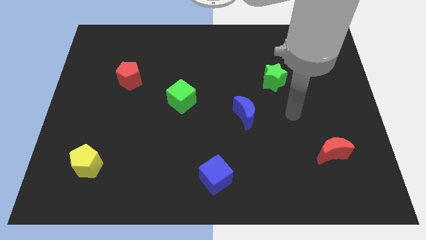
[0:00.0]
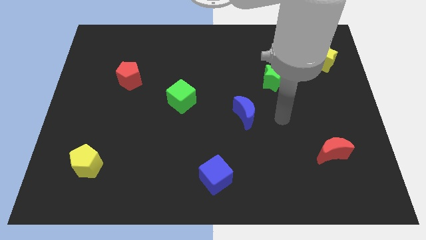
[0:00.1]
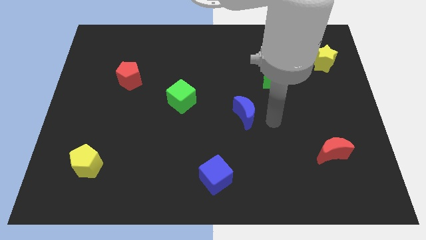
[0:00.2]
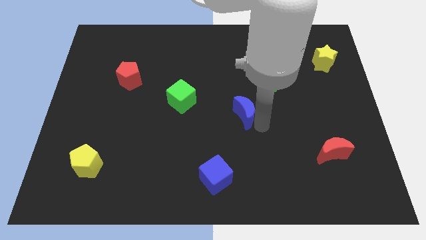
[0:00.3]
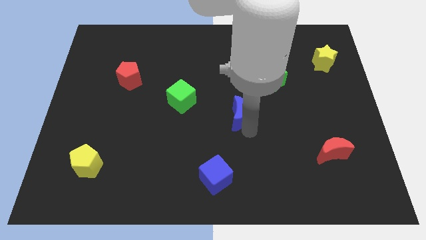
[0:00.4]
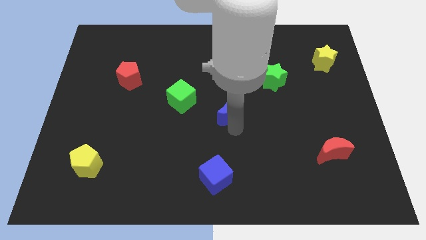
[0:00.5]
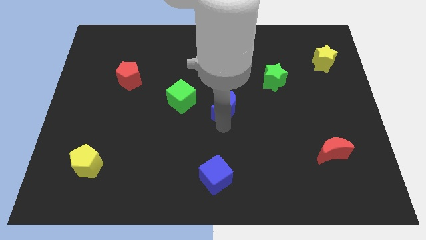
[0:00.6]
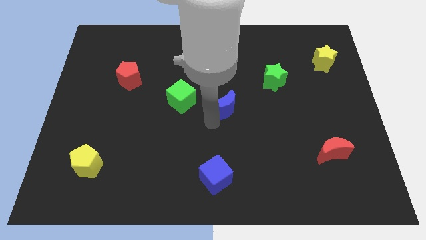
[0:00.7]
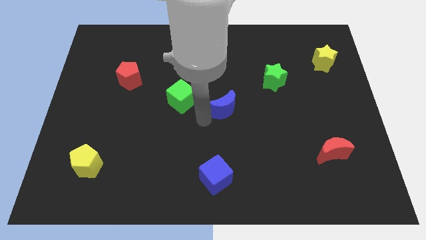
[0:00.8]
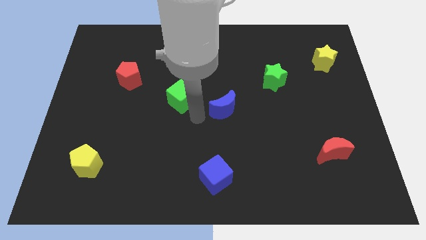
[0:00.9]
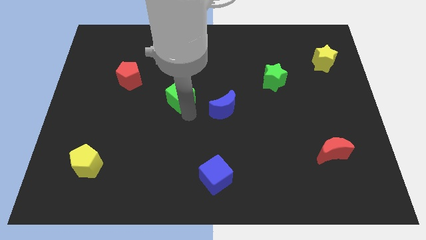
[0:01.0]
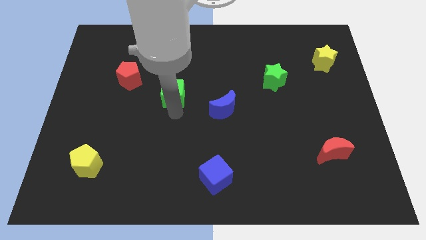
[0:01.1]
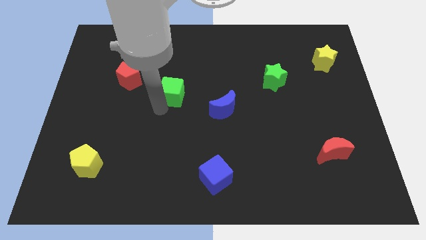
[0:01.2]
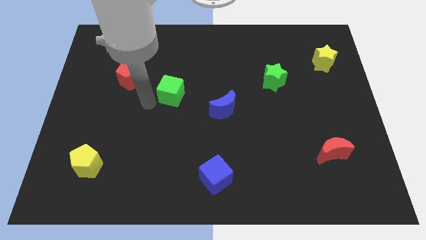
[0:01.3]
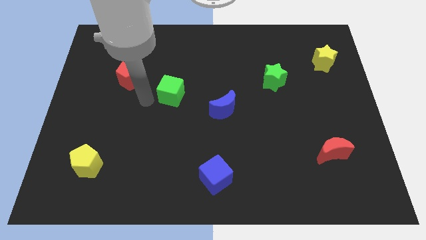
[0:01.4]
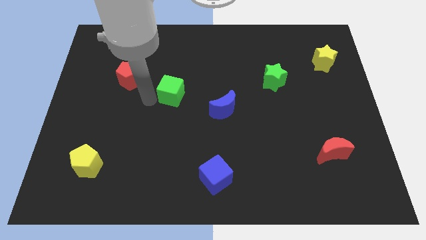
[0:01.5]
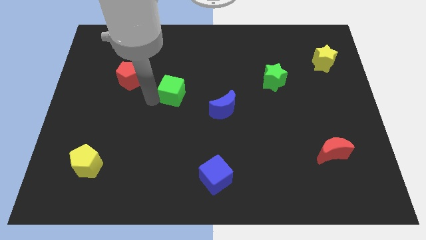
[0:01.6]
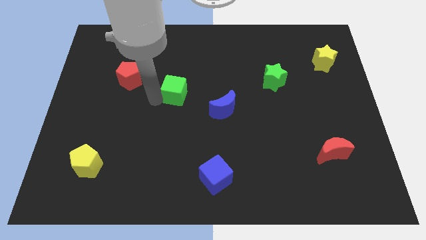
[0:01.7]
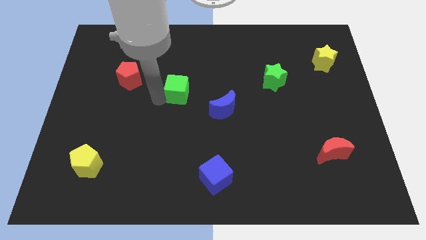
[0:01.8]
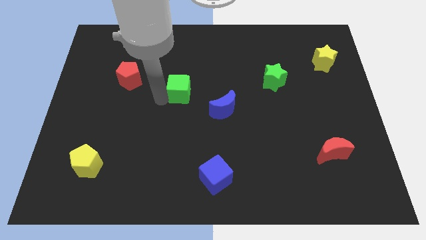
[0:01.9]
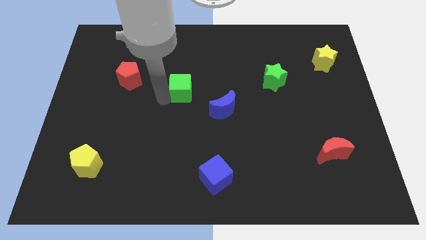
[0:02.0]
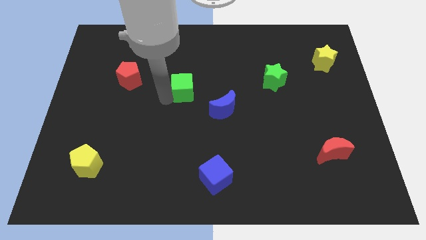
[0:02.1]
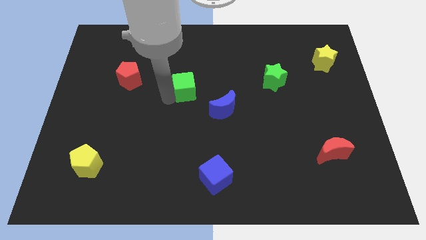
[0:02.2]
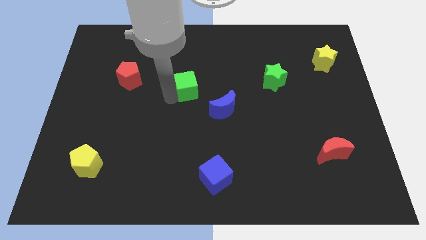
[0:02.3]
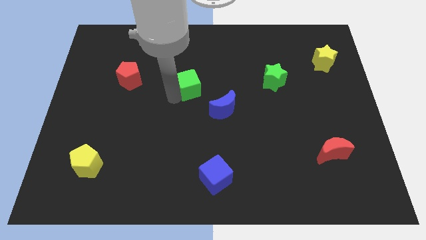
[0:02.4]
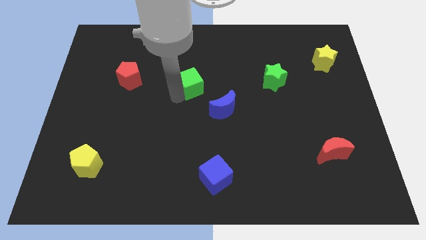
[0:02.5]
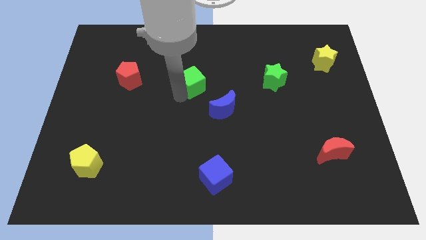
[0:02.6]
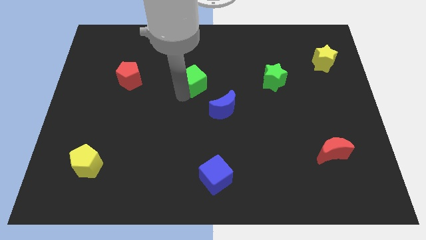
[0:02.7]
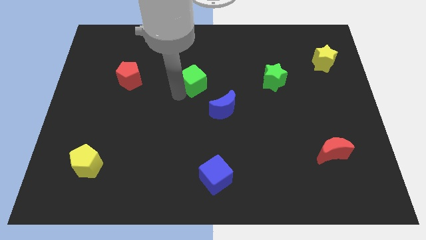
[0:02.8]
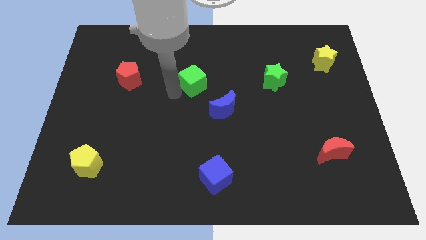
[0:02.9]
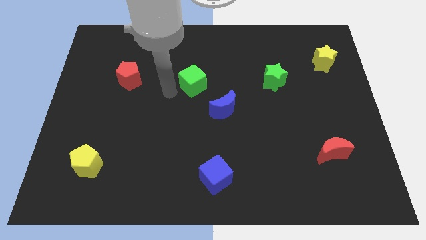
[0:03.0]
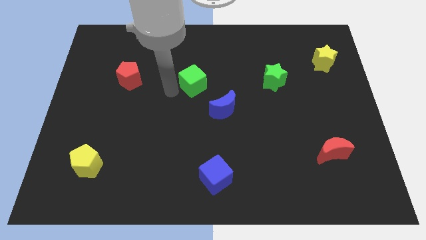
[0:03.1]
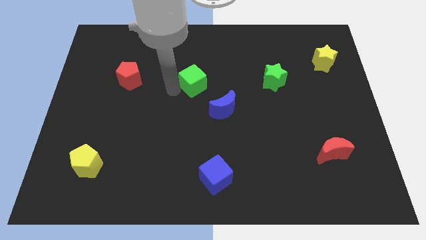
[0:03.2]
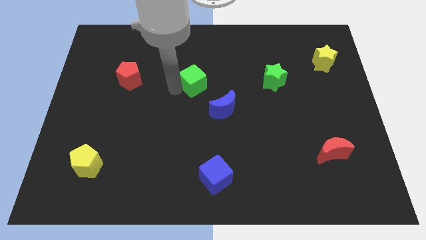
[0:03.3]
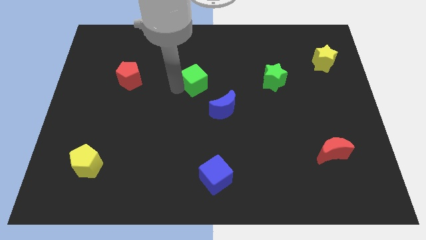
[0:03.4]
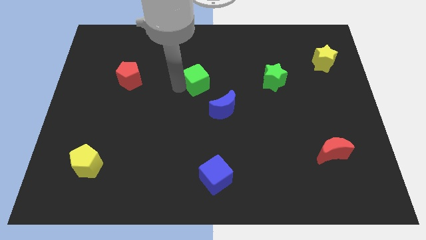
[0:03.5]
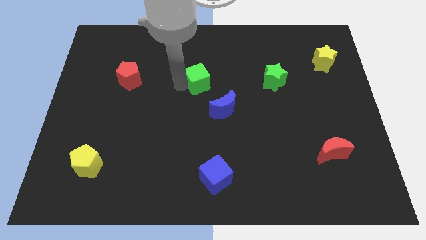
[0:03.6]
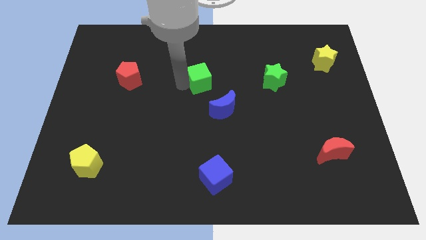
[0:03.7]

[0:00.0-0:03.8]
push the green cube a bit diagonally upwards and right

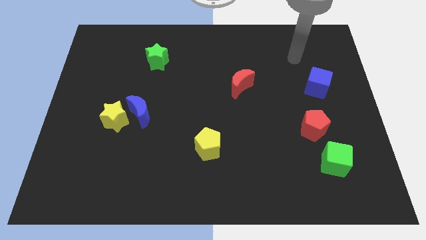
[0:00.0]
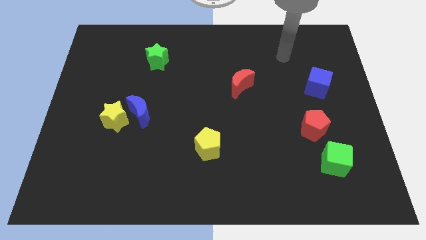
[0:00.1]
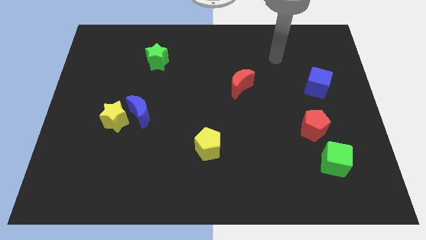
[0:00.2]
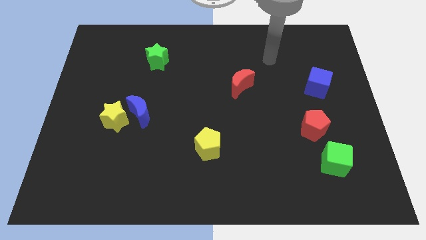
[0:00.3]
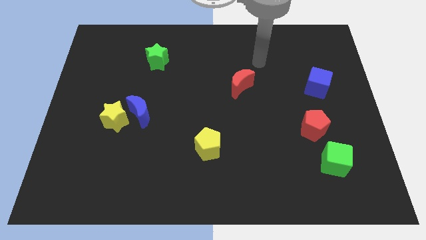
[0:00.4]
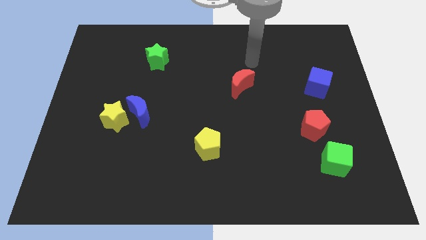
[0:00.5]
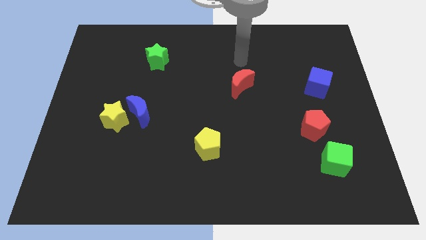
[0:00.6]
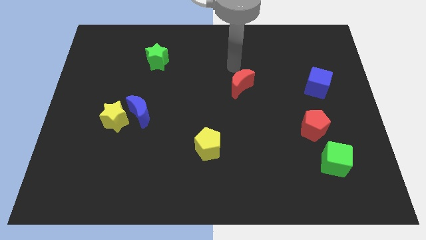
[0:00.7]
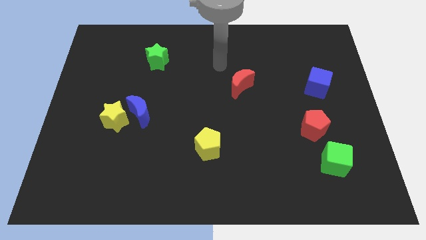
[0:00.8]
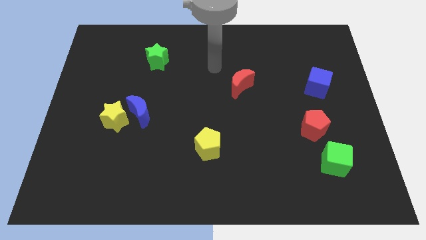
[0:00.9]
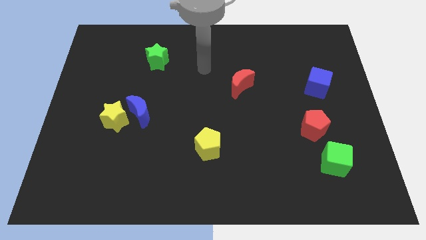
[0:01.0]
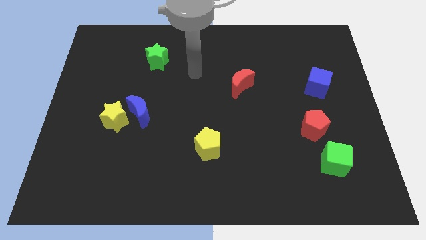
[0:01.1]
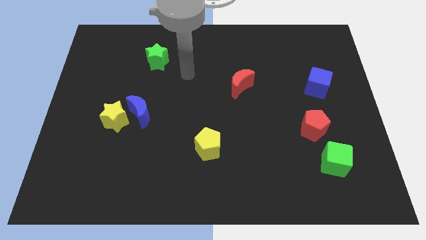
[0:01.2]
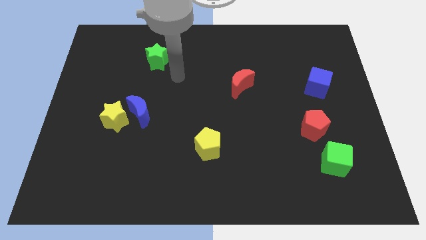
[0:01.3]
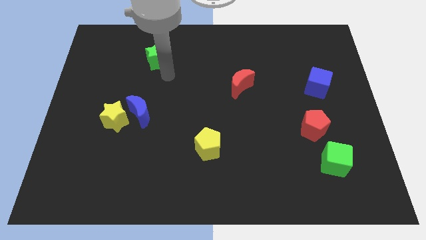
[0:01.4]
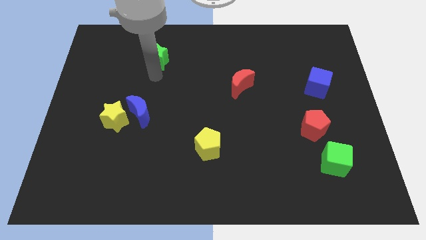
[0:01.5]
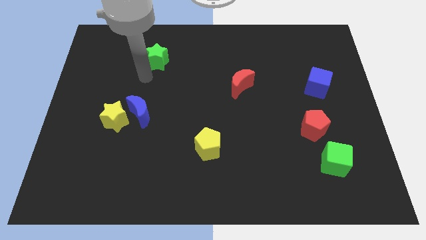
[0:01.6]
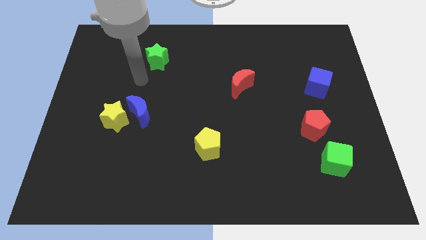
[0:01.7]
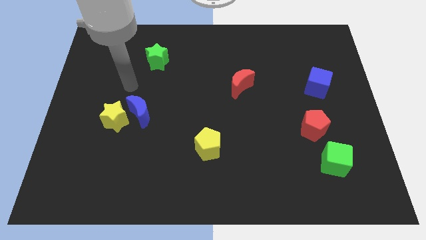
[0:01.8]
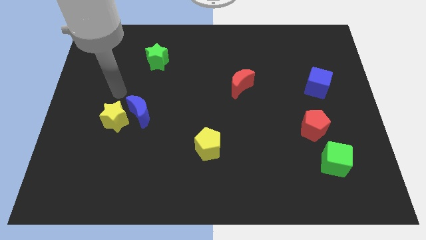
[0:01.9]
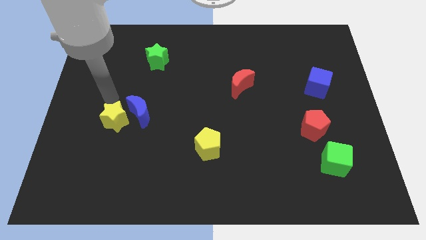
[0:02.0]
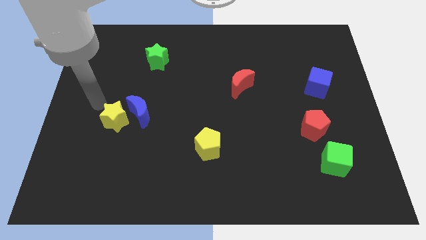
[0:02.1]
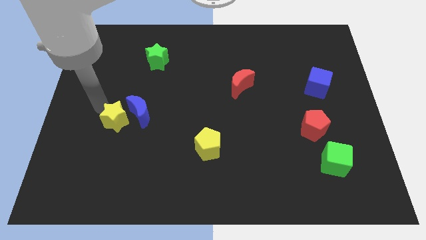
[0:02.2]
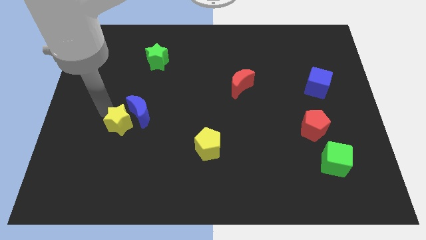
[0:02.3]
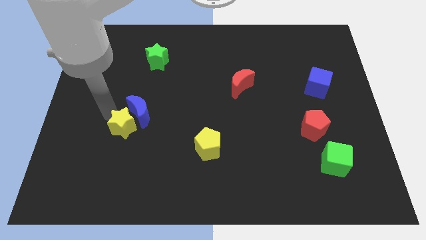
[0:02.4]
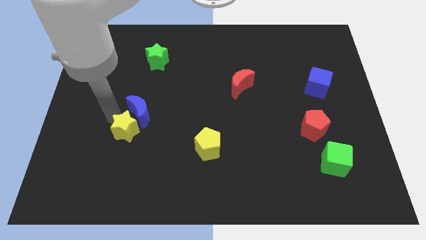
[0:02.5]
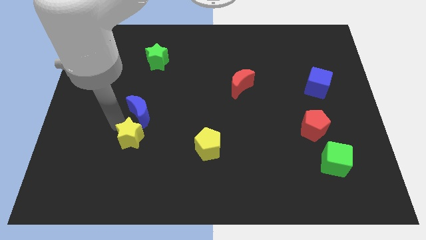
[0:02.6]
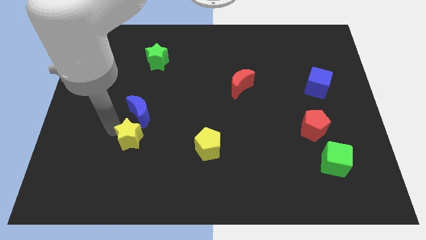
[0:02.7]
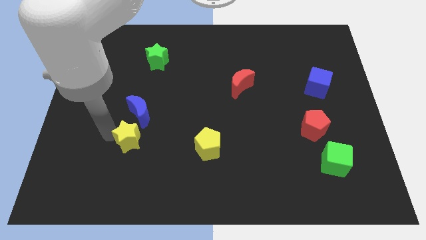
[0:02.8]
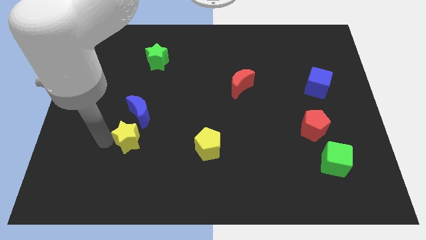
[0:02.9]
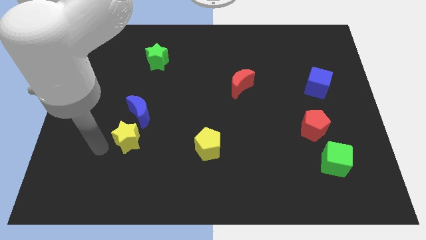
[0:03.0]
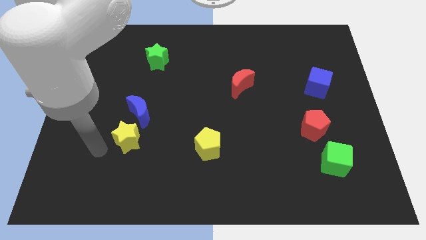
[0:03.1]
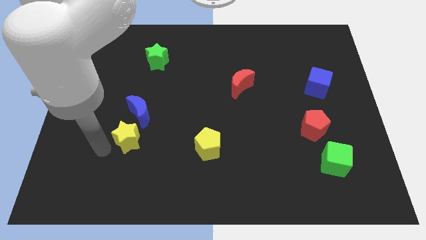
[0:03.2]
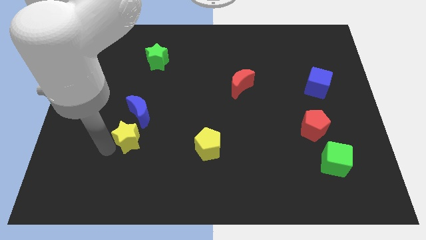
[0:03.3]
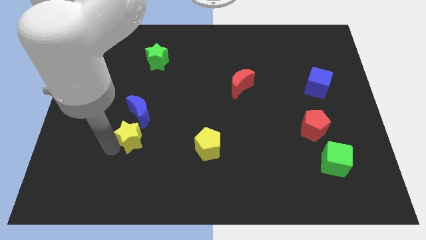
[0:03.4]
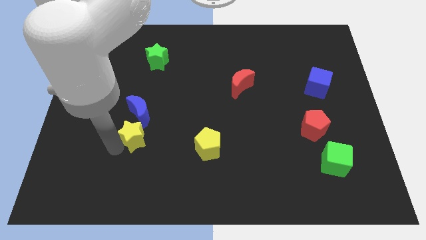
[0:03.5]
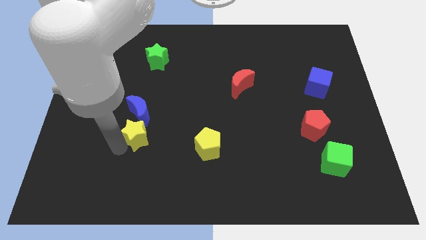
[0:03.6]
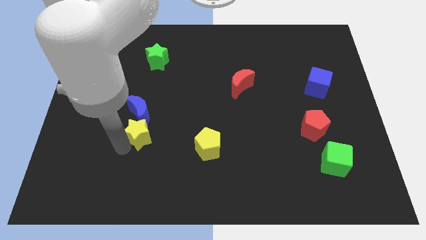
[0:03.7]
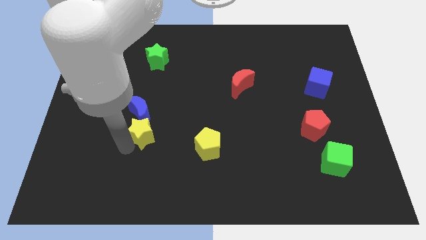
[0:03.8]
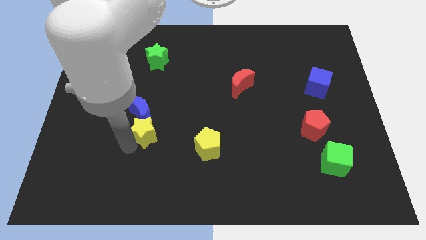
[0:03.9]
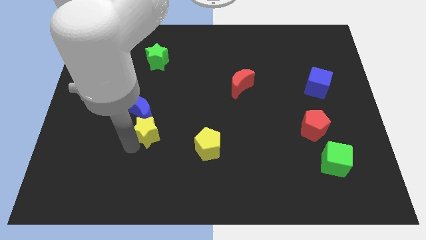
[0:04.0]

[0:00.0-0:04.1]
slightly push the yellow star right

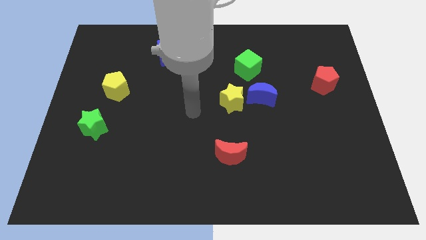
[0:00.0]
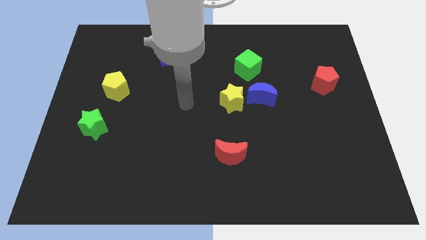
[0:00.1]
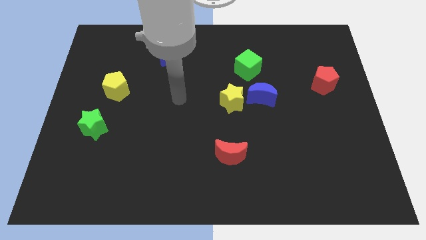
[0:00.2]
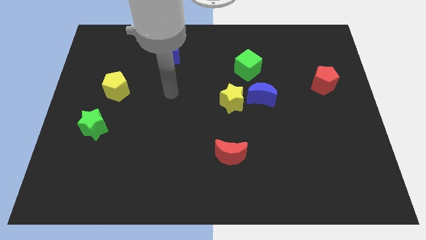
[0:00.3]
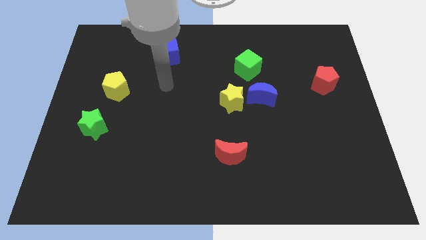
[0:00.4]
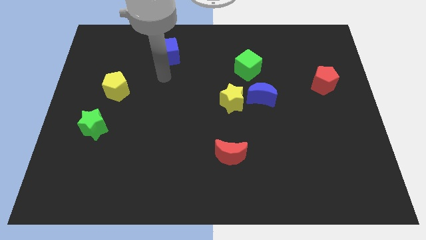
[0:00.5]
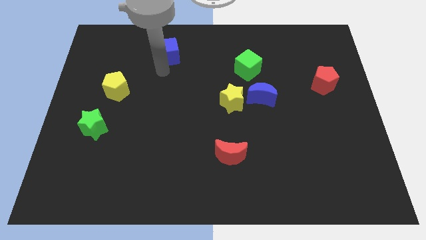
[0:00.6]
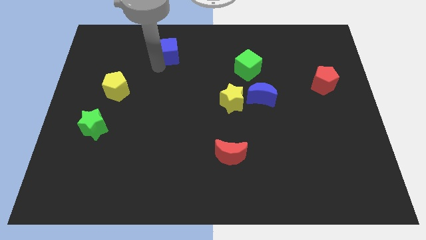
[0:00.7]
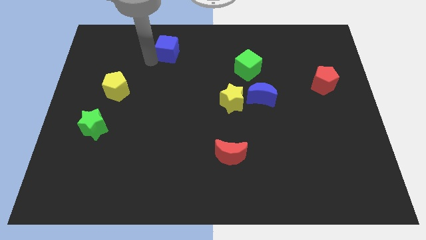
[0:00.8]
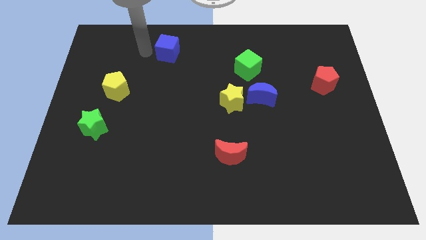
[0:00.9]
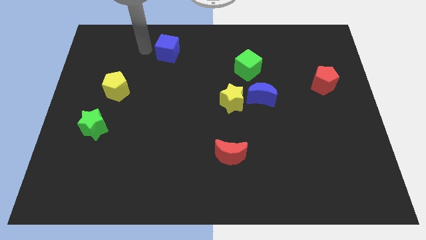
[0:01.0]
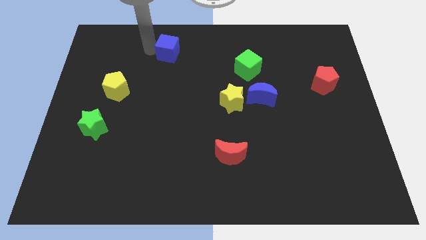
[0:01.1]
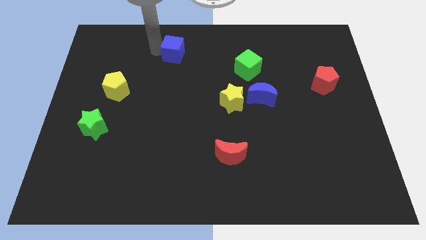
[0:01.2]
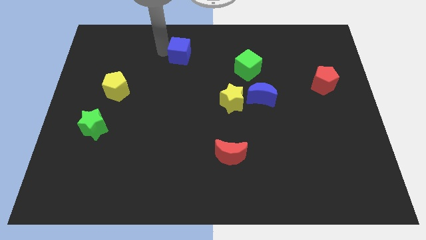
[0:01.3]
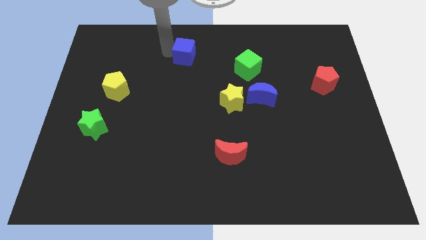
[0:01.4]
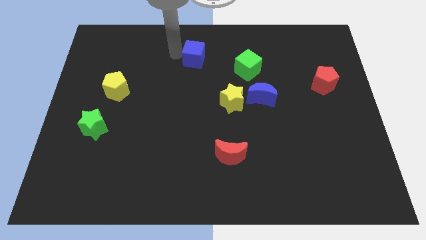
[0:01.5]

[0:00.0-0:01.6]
push the blue cube right a little bit
